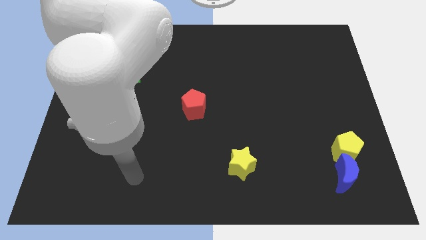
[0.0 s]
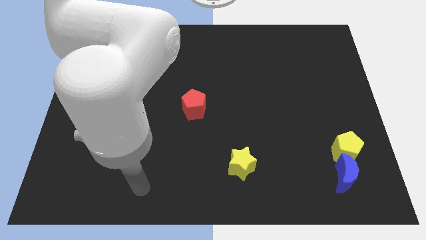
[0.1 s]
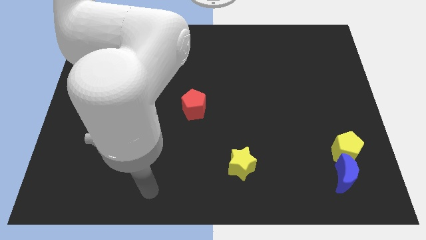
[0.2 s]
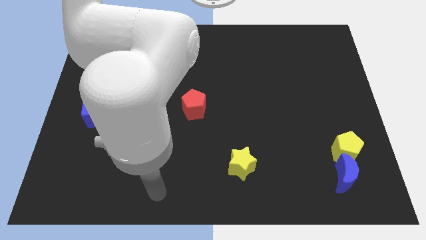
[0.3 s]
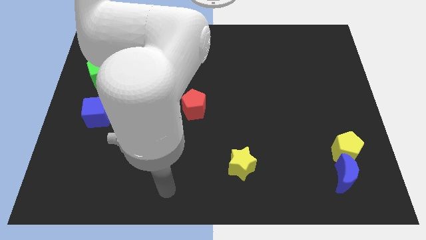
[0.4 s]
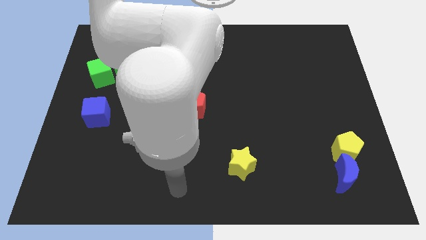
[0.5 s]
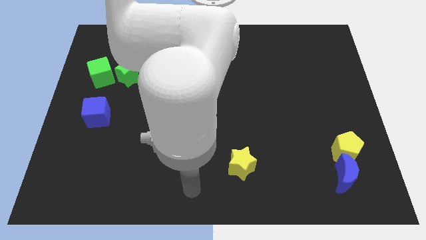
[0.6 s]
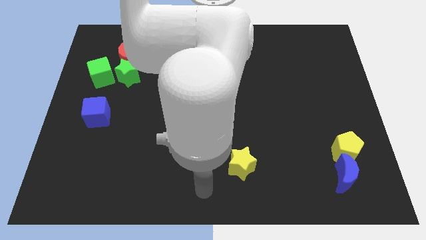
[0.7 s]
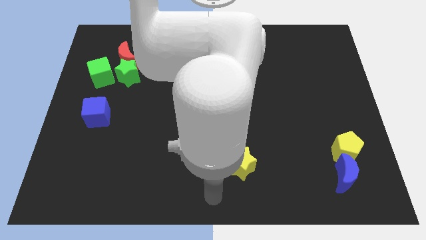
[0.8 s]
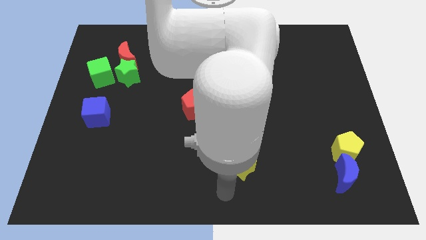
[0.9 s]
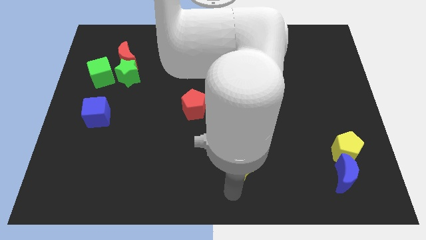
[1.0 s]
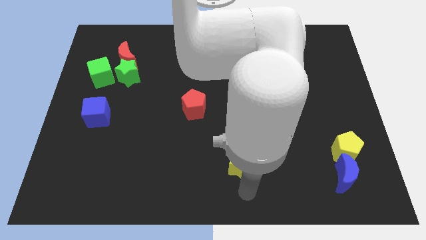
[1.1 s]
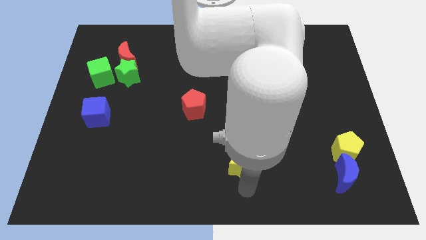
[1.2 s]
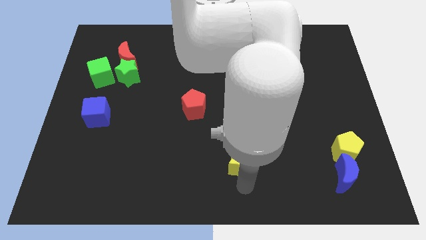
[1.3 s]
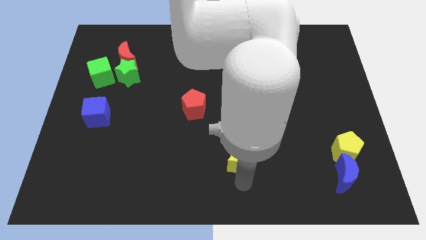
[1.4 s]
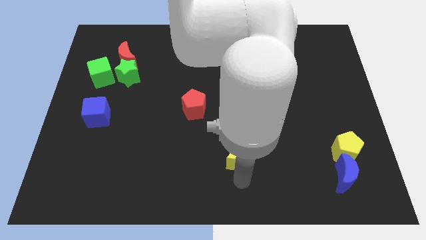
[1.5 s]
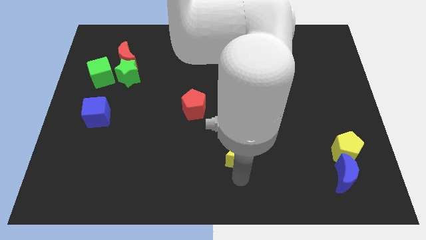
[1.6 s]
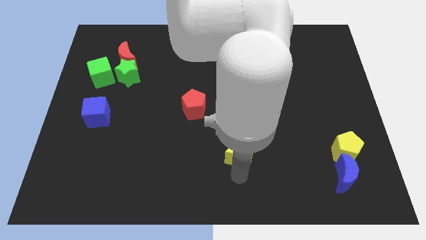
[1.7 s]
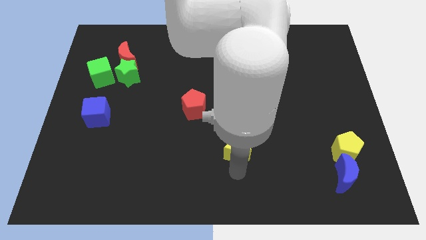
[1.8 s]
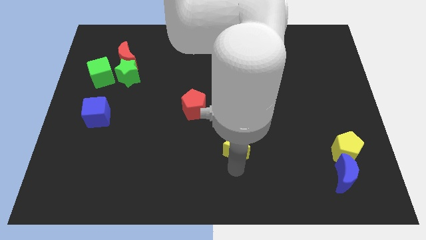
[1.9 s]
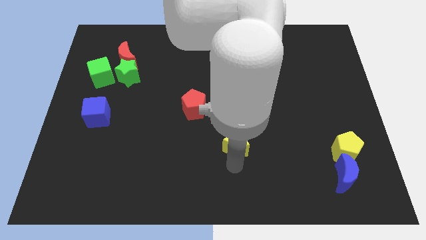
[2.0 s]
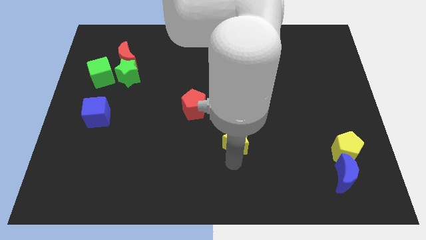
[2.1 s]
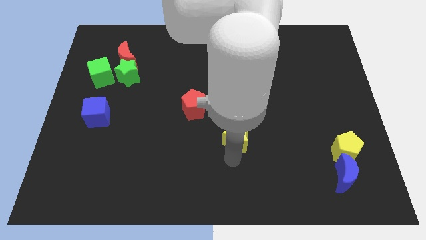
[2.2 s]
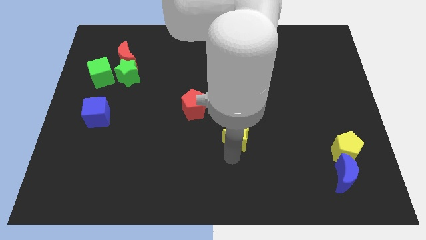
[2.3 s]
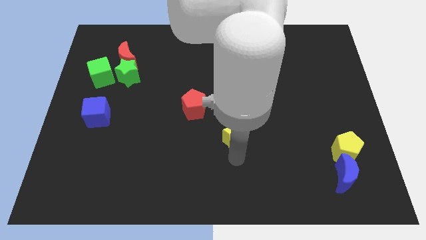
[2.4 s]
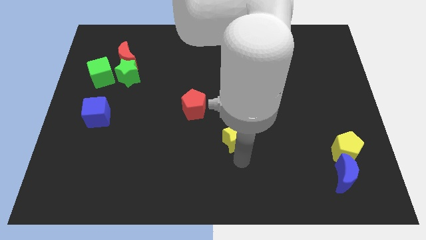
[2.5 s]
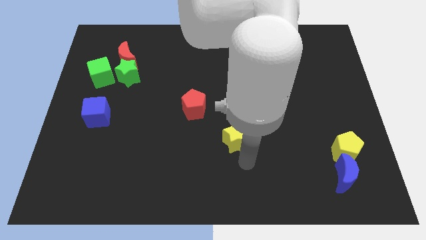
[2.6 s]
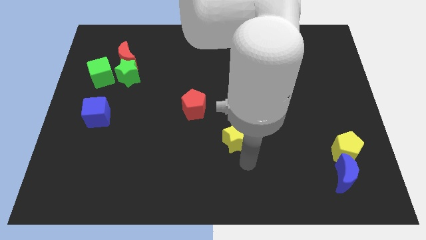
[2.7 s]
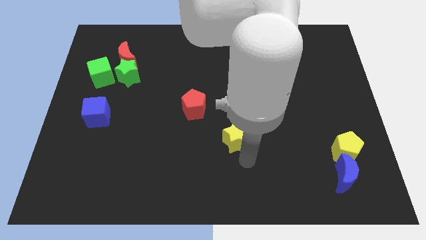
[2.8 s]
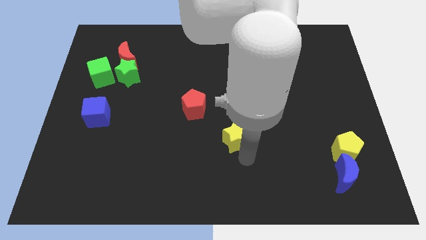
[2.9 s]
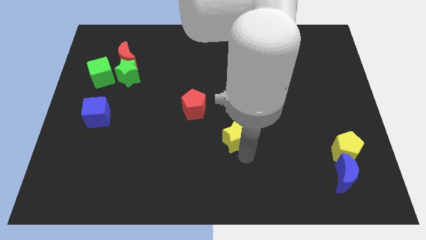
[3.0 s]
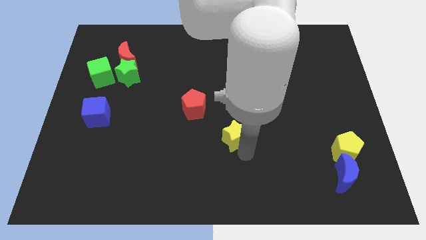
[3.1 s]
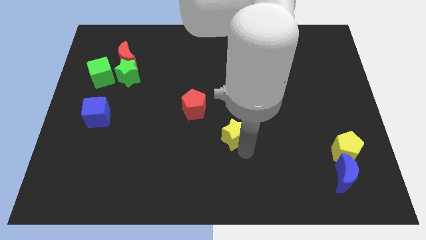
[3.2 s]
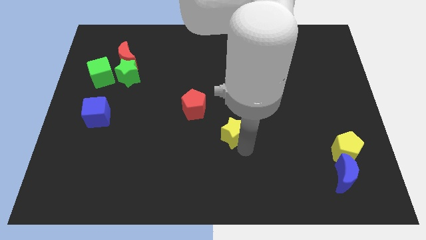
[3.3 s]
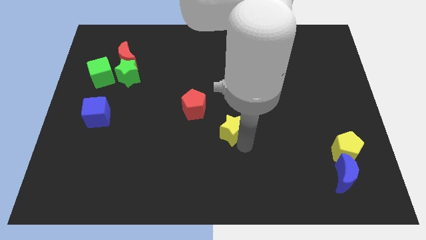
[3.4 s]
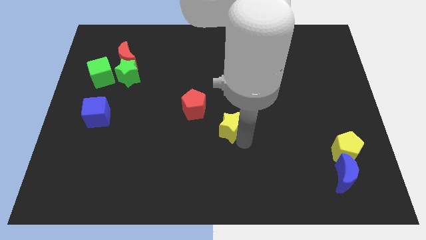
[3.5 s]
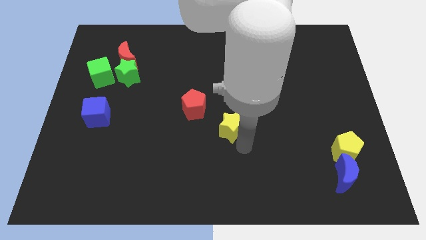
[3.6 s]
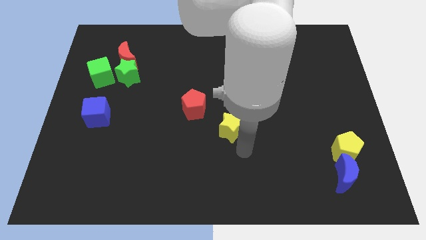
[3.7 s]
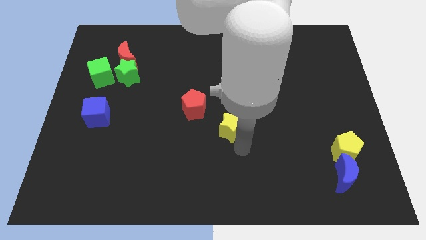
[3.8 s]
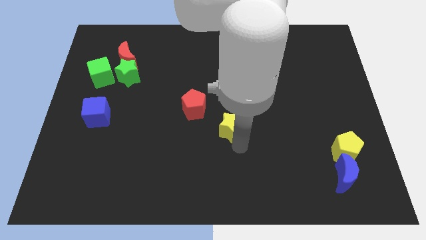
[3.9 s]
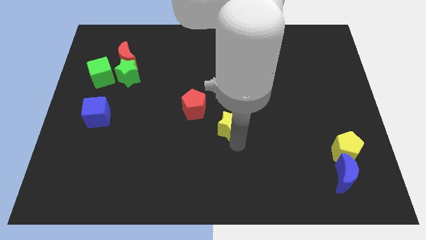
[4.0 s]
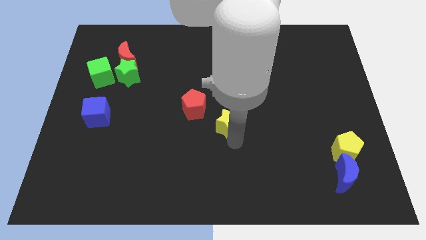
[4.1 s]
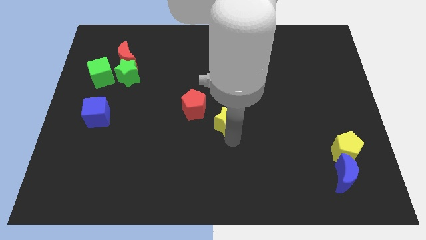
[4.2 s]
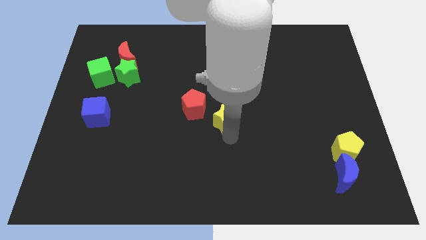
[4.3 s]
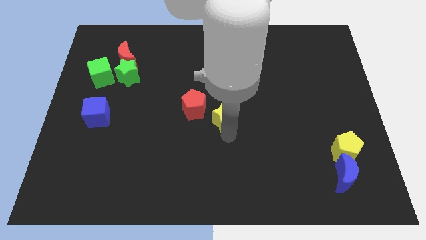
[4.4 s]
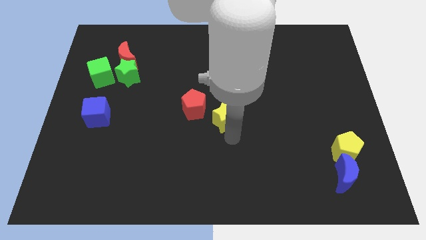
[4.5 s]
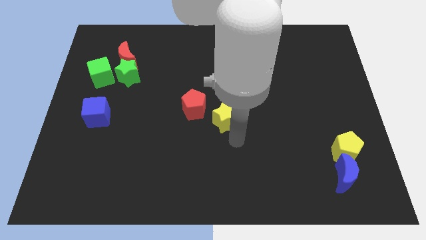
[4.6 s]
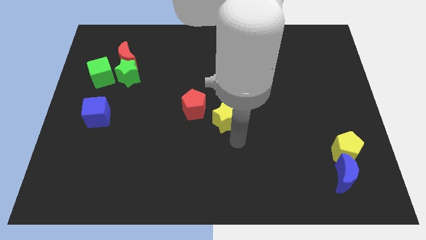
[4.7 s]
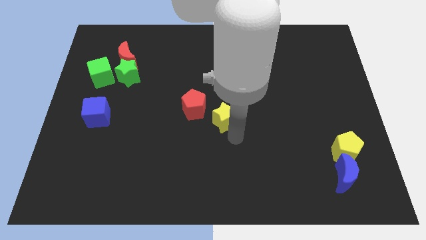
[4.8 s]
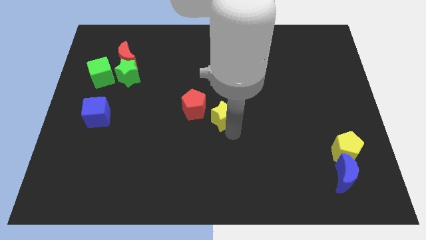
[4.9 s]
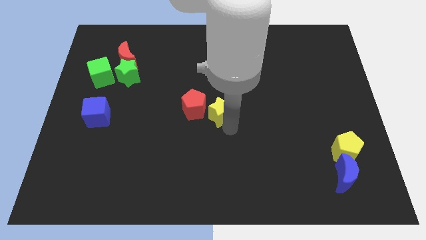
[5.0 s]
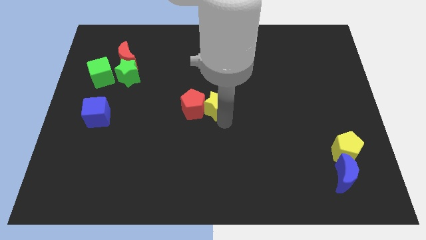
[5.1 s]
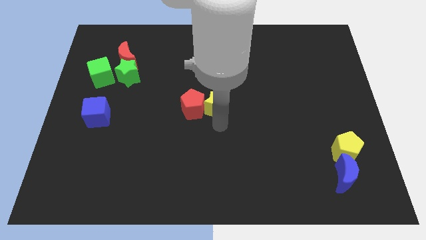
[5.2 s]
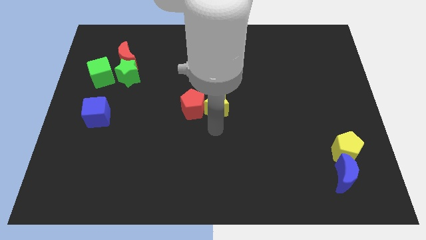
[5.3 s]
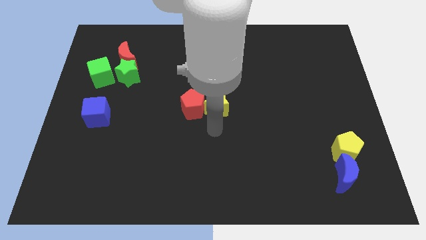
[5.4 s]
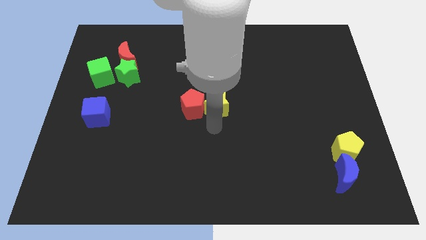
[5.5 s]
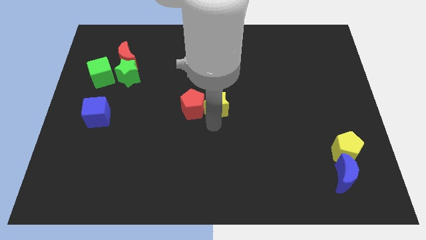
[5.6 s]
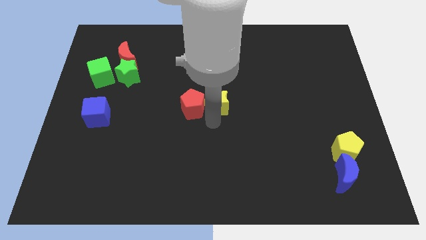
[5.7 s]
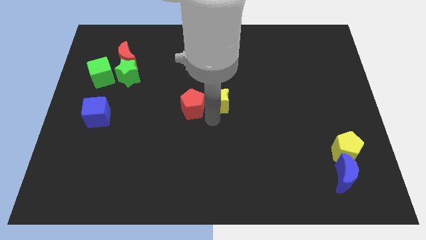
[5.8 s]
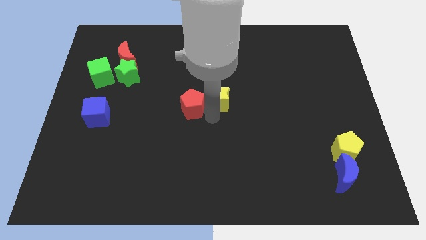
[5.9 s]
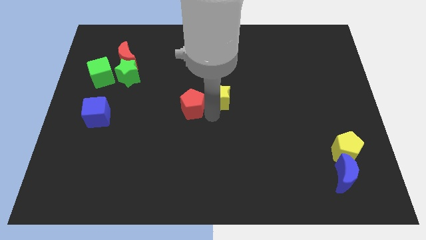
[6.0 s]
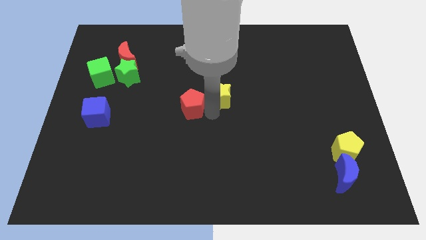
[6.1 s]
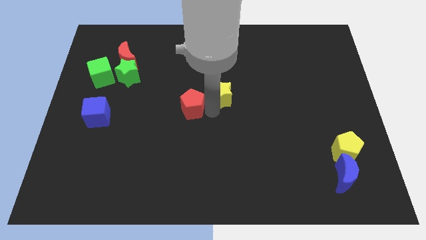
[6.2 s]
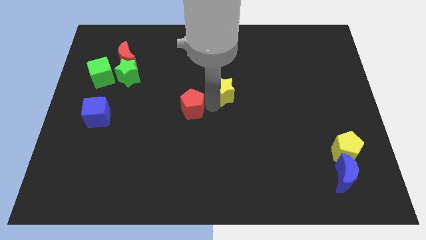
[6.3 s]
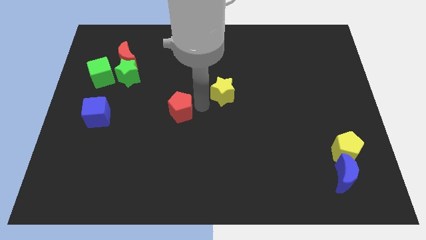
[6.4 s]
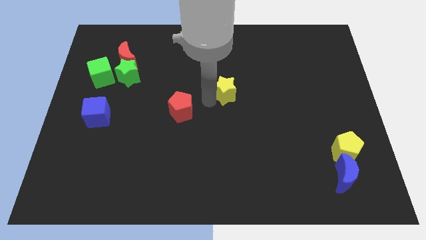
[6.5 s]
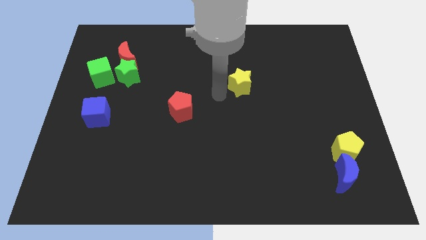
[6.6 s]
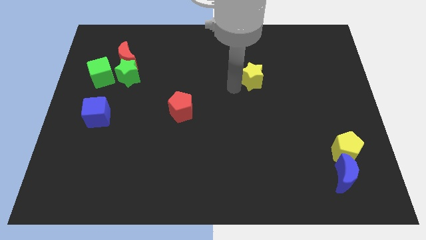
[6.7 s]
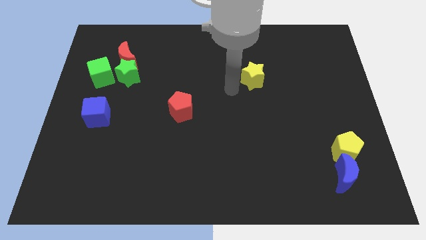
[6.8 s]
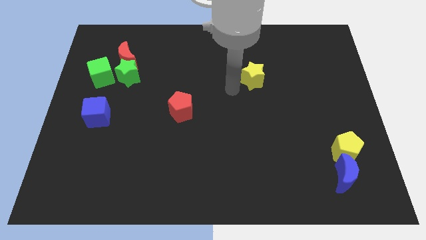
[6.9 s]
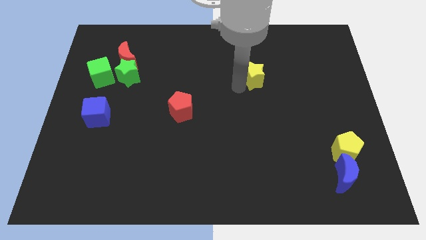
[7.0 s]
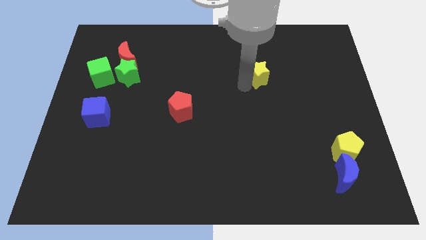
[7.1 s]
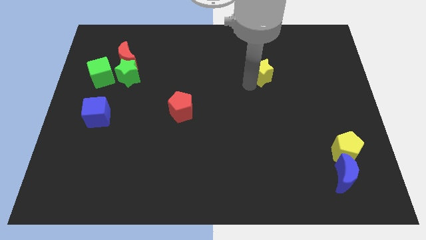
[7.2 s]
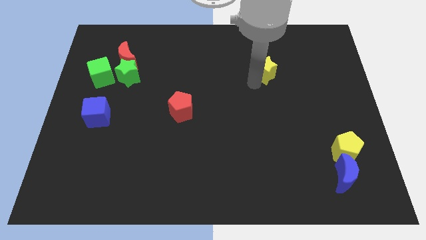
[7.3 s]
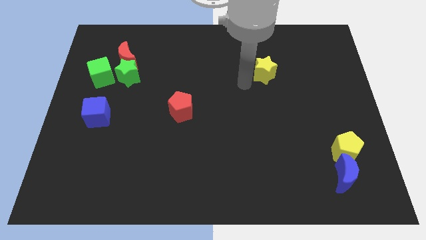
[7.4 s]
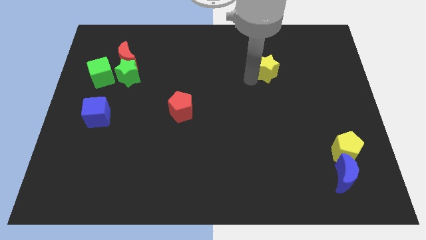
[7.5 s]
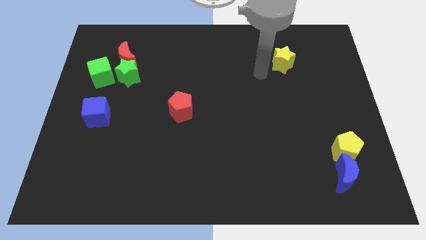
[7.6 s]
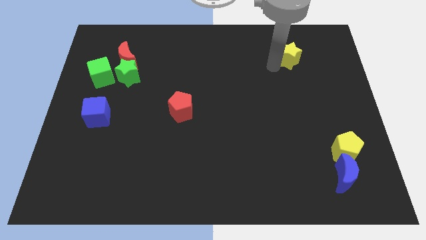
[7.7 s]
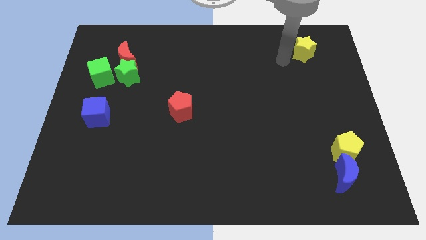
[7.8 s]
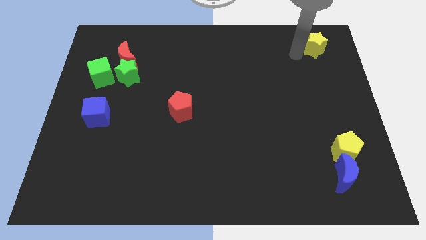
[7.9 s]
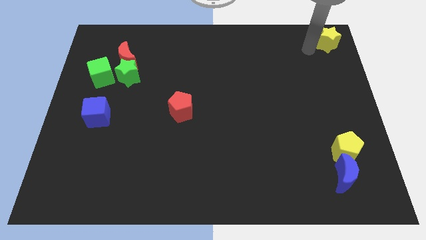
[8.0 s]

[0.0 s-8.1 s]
slide the yellow star to the top right
